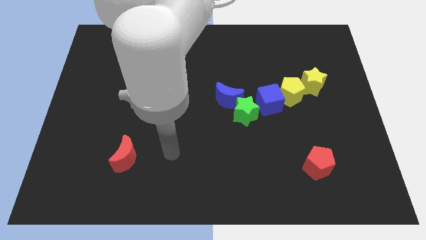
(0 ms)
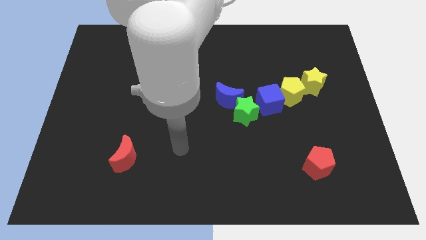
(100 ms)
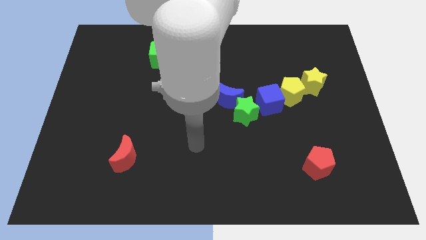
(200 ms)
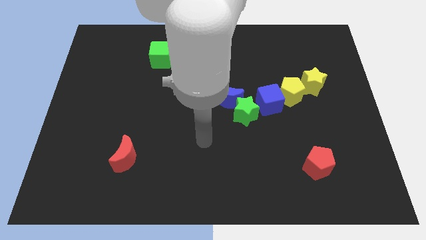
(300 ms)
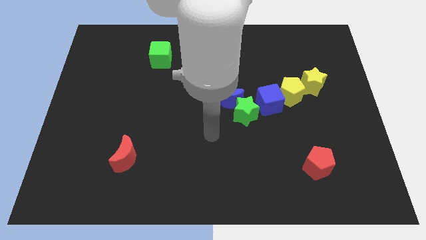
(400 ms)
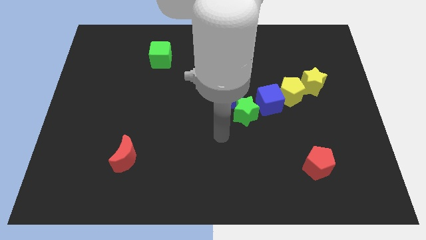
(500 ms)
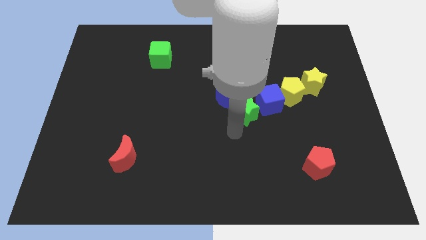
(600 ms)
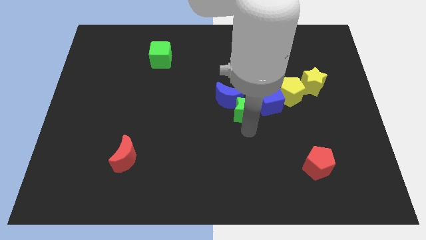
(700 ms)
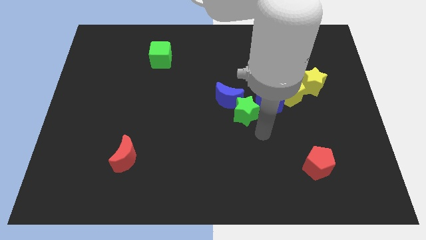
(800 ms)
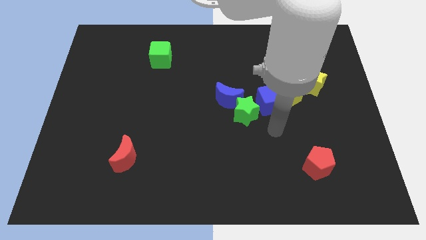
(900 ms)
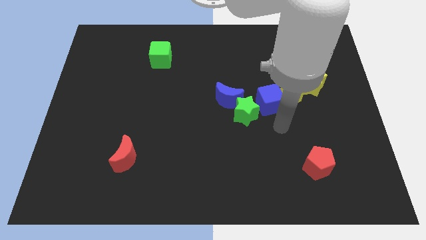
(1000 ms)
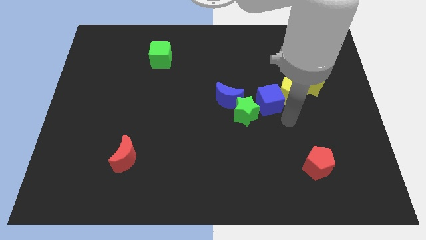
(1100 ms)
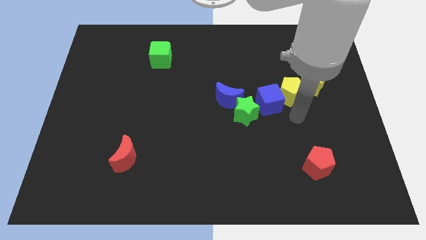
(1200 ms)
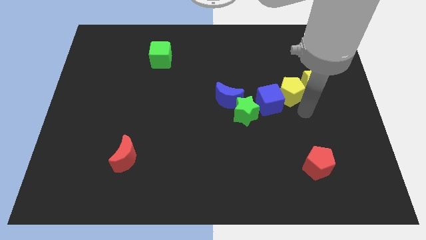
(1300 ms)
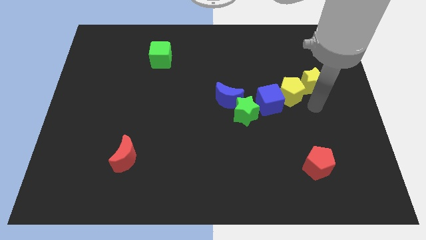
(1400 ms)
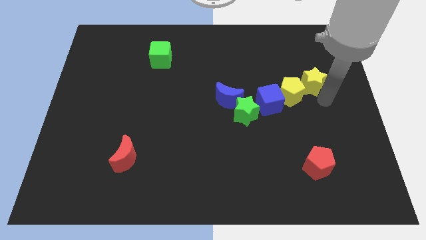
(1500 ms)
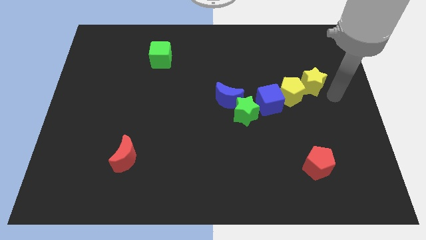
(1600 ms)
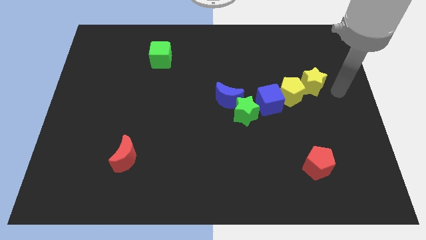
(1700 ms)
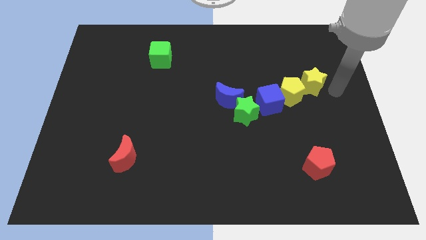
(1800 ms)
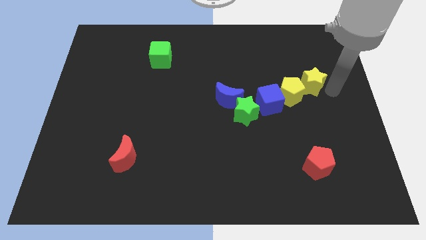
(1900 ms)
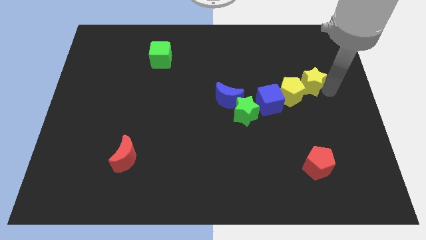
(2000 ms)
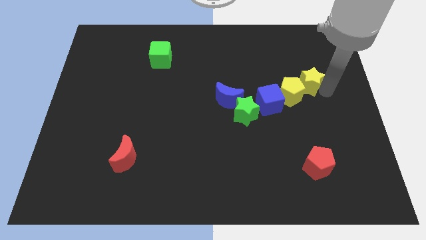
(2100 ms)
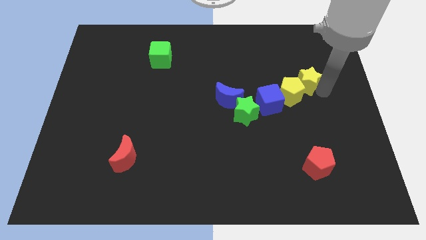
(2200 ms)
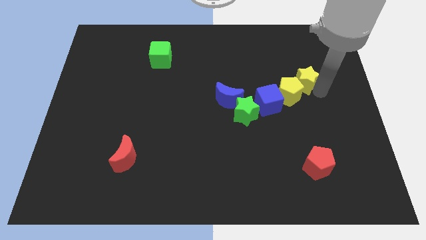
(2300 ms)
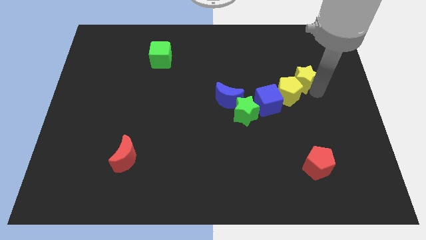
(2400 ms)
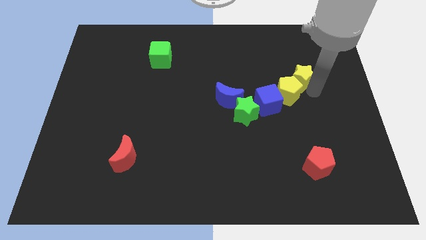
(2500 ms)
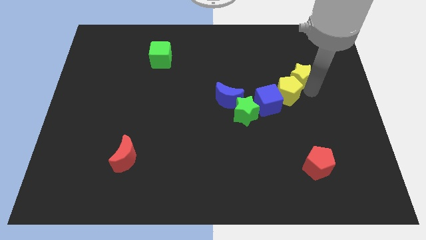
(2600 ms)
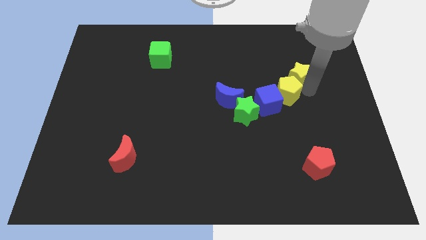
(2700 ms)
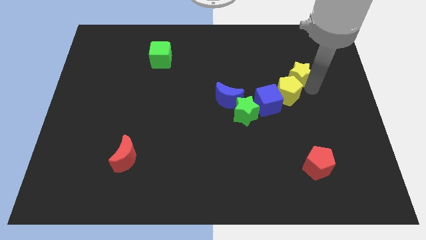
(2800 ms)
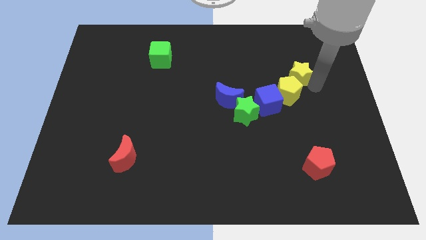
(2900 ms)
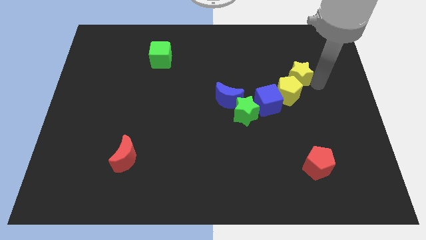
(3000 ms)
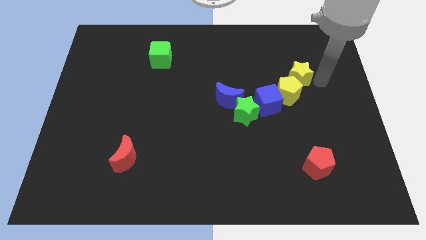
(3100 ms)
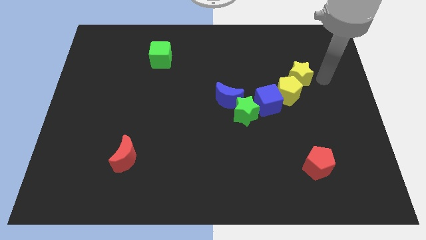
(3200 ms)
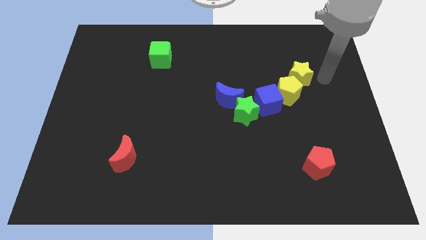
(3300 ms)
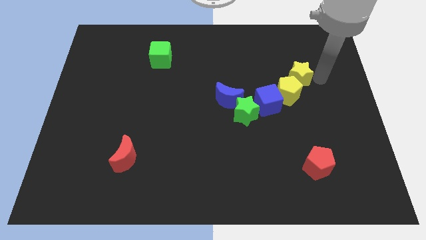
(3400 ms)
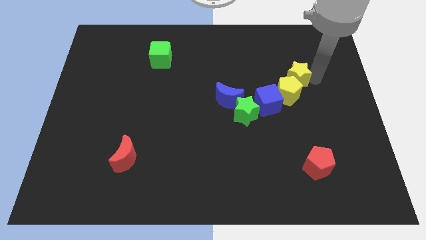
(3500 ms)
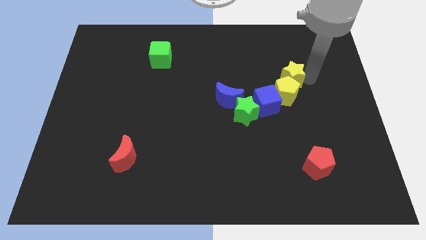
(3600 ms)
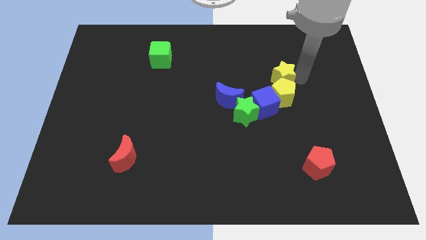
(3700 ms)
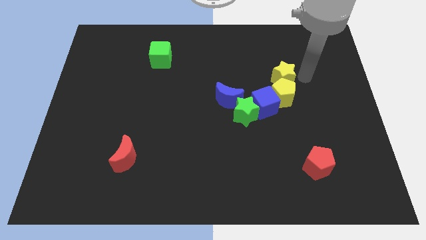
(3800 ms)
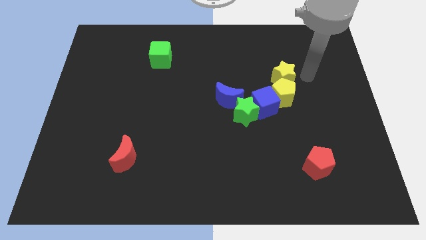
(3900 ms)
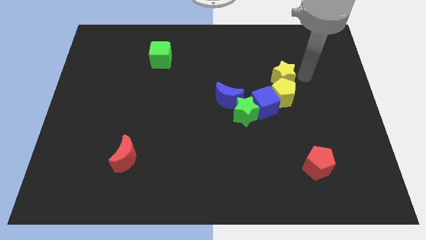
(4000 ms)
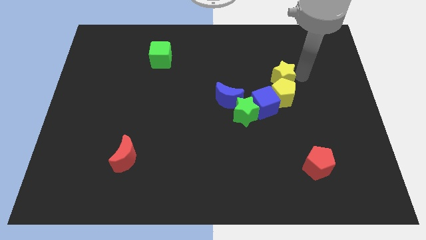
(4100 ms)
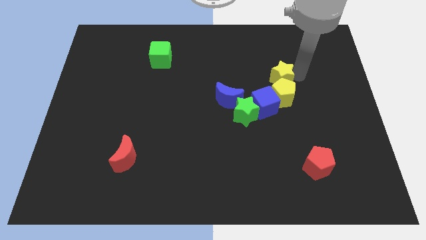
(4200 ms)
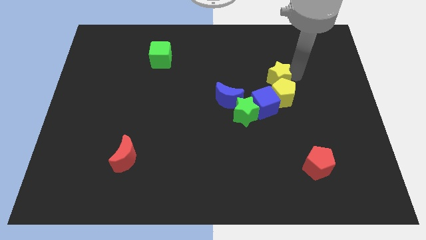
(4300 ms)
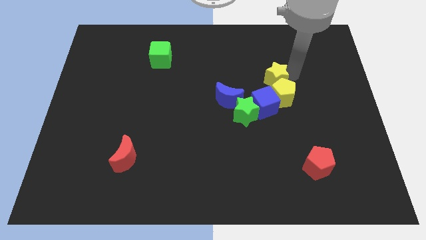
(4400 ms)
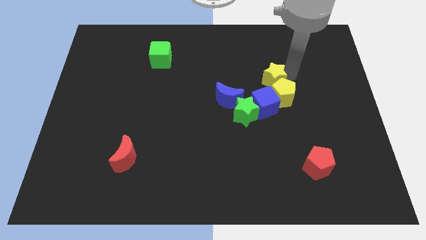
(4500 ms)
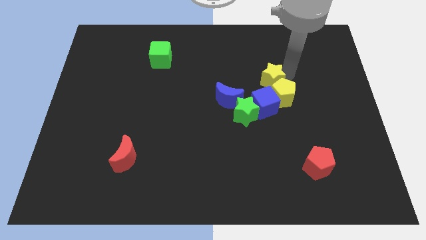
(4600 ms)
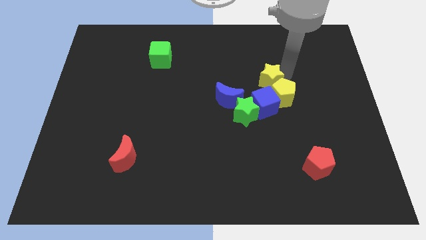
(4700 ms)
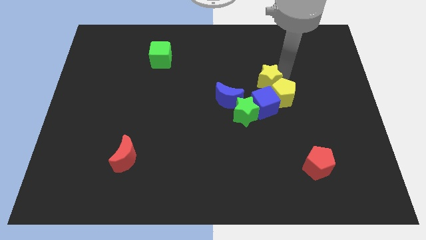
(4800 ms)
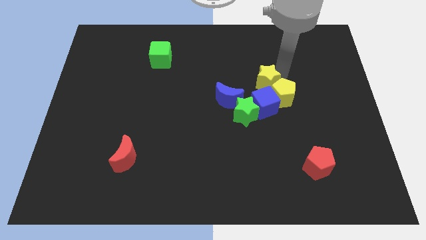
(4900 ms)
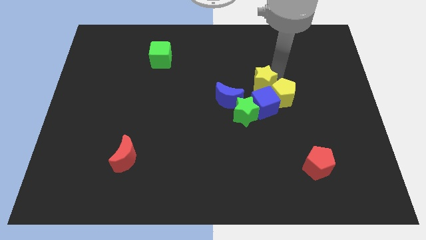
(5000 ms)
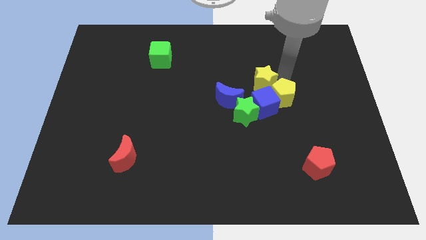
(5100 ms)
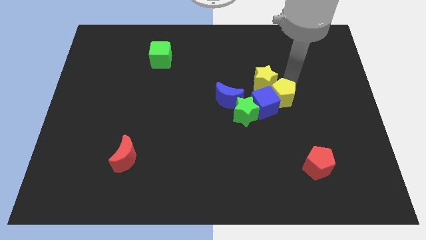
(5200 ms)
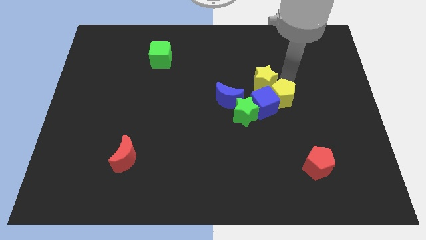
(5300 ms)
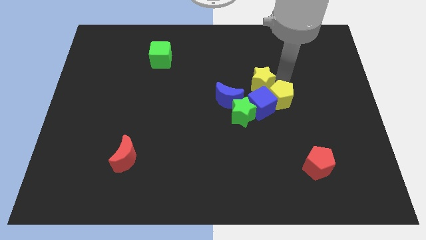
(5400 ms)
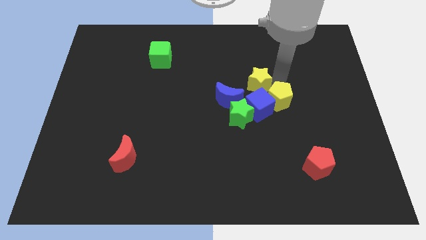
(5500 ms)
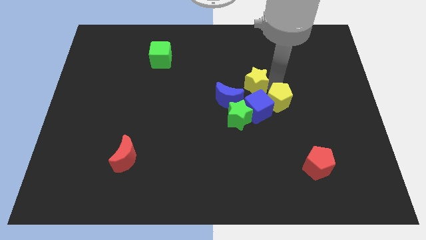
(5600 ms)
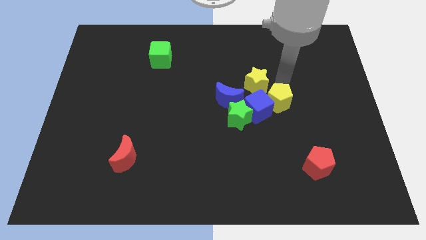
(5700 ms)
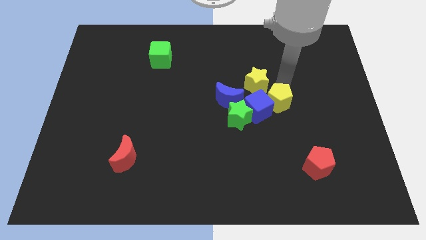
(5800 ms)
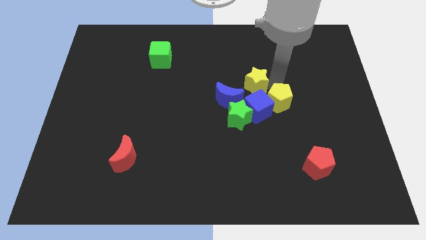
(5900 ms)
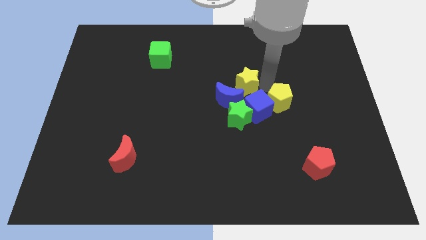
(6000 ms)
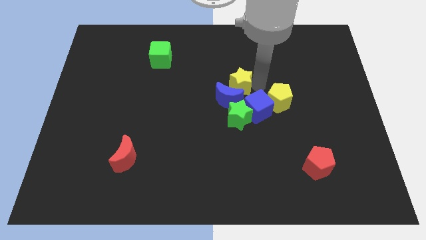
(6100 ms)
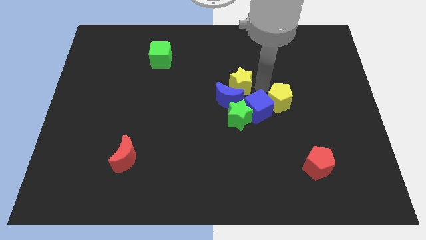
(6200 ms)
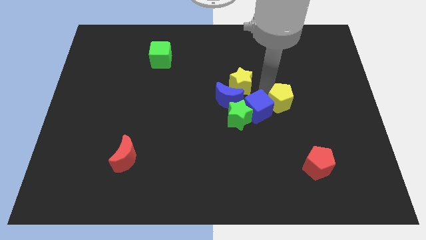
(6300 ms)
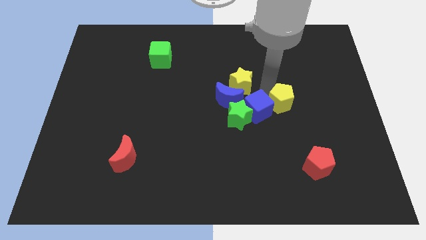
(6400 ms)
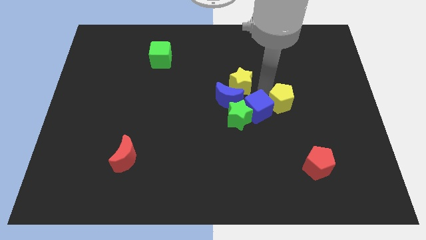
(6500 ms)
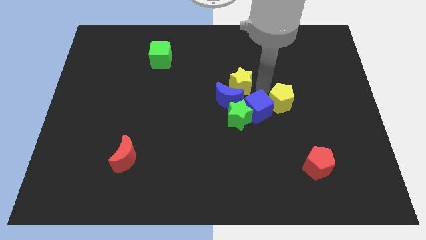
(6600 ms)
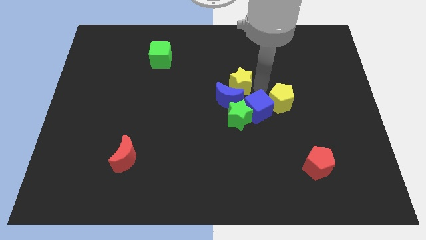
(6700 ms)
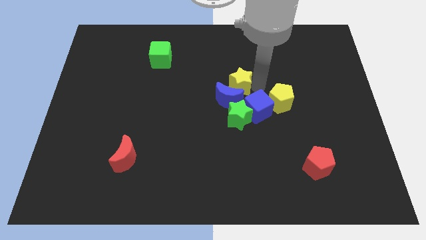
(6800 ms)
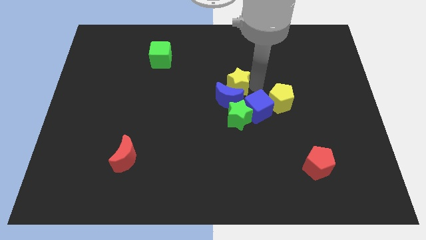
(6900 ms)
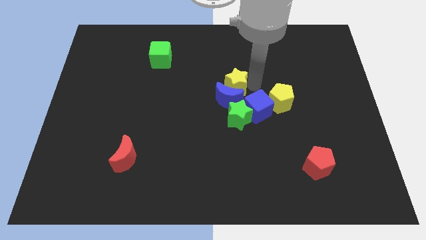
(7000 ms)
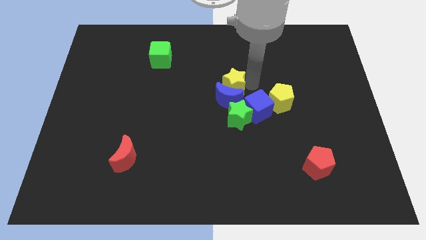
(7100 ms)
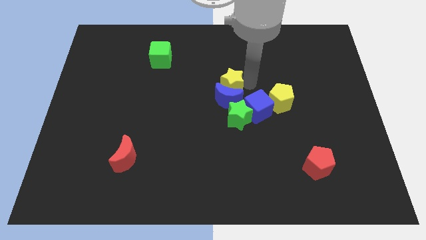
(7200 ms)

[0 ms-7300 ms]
move the yellow star left

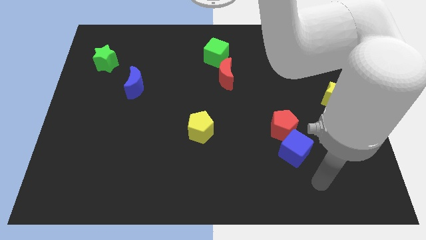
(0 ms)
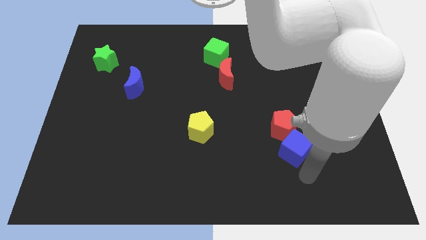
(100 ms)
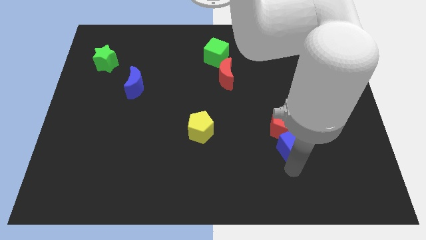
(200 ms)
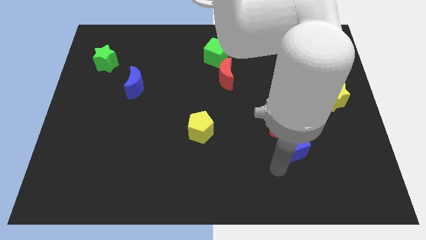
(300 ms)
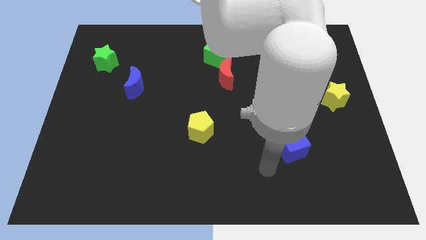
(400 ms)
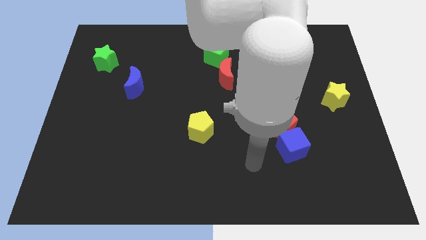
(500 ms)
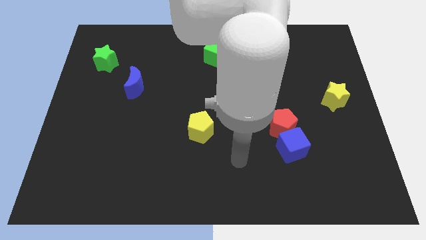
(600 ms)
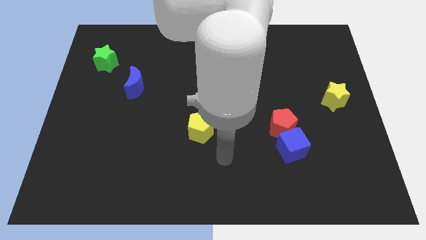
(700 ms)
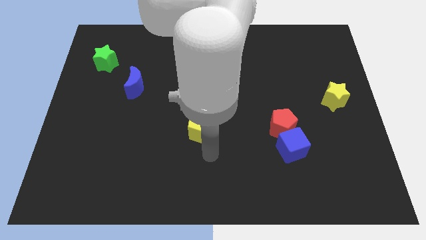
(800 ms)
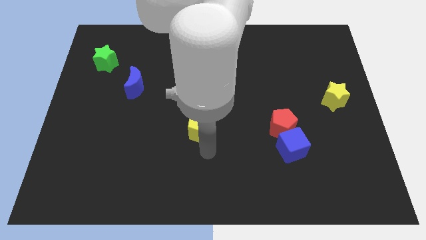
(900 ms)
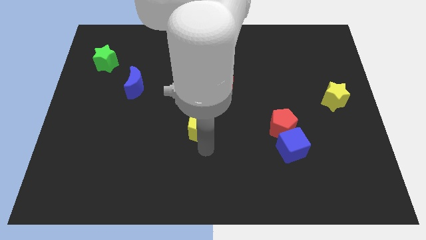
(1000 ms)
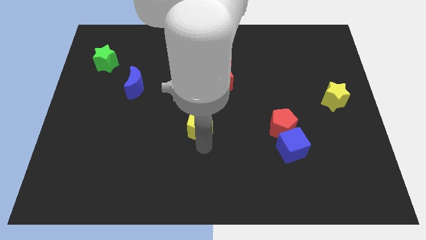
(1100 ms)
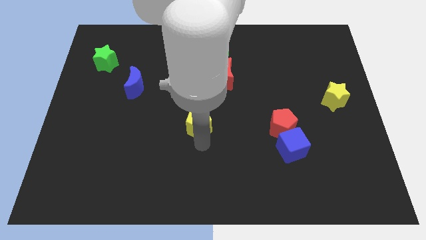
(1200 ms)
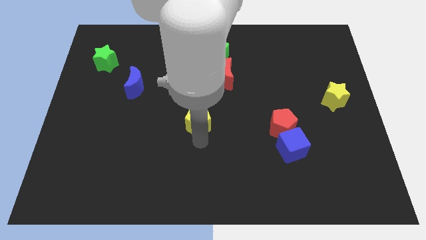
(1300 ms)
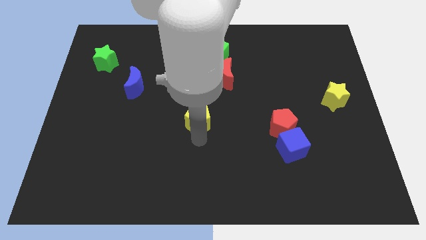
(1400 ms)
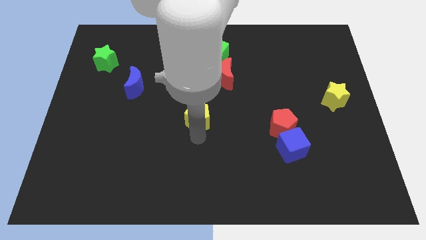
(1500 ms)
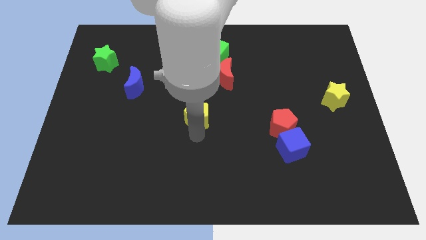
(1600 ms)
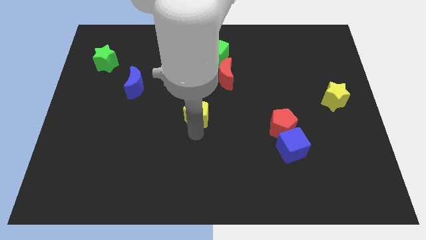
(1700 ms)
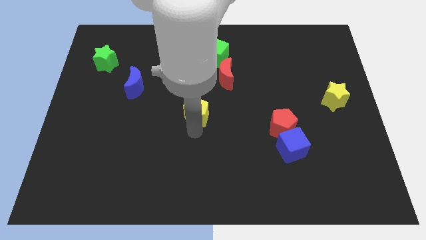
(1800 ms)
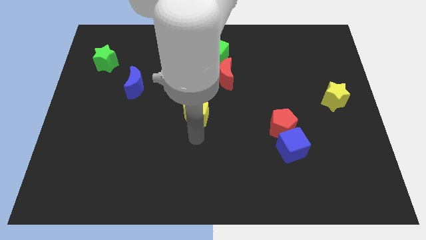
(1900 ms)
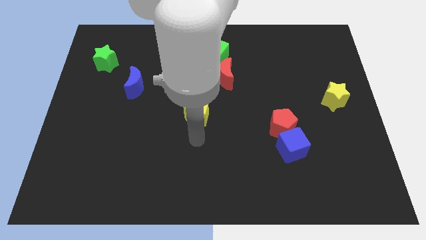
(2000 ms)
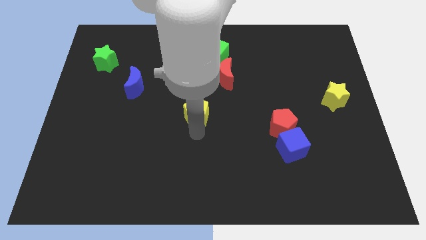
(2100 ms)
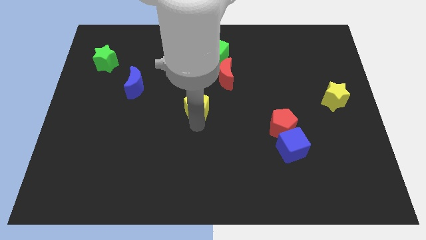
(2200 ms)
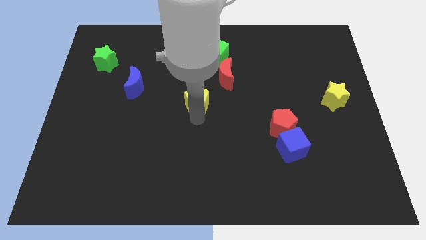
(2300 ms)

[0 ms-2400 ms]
slightly move the yellow pentagon upwards
